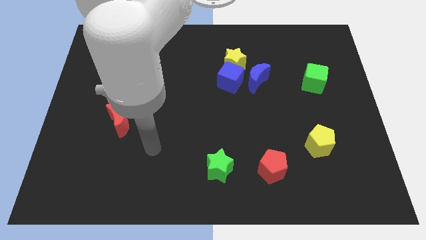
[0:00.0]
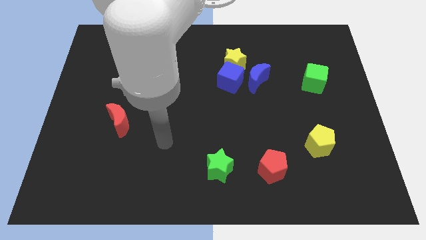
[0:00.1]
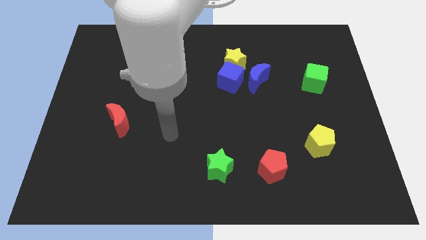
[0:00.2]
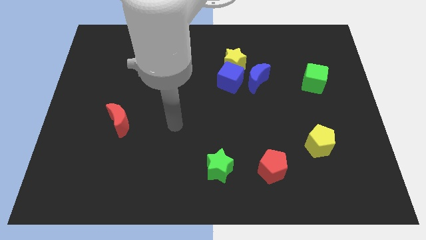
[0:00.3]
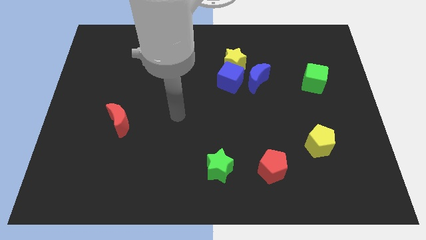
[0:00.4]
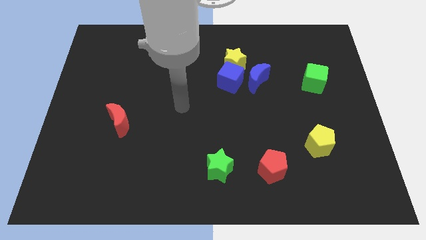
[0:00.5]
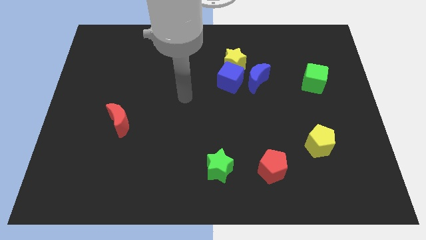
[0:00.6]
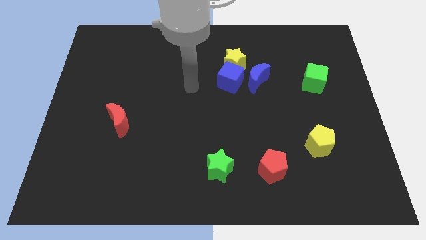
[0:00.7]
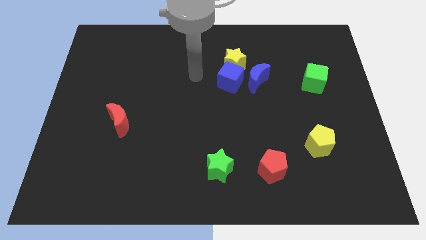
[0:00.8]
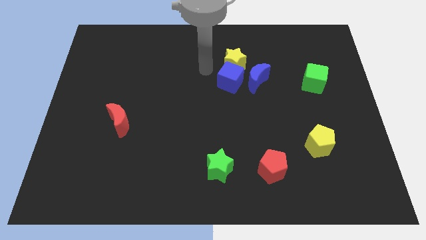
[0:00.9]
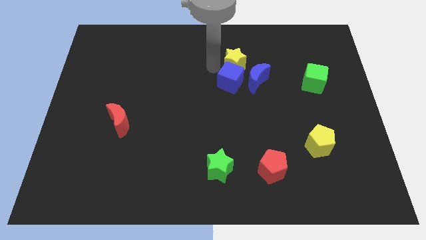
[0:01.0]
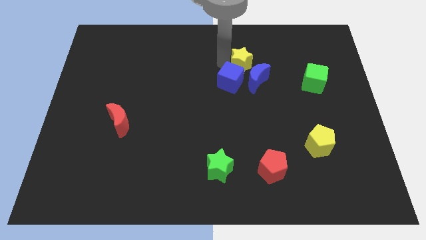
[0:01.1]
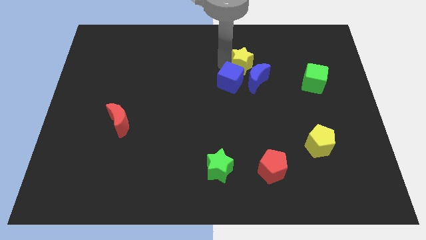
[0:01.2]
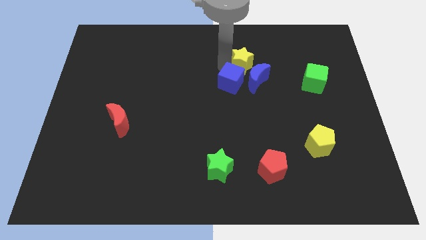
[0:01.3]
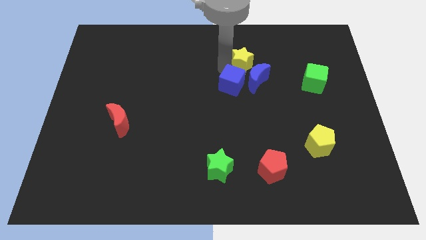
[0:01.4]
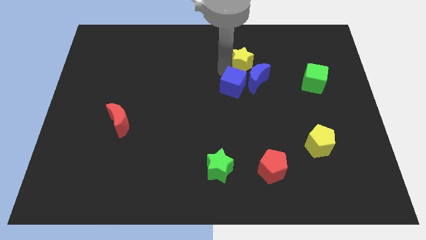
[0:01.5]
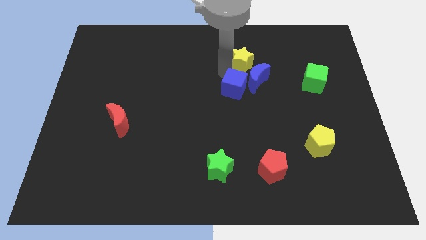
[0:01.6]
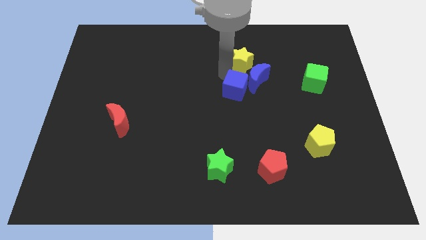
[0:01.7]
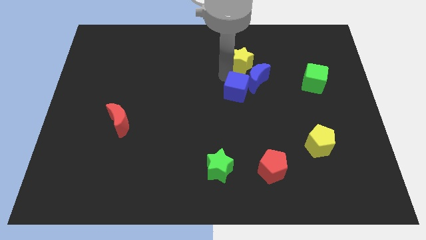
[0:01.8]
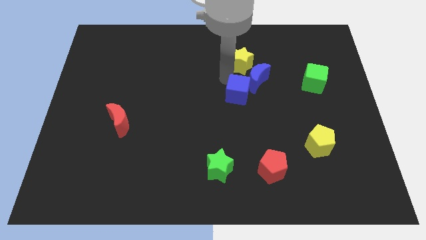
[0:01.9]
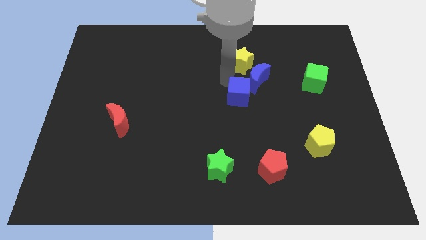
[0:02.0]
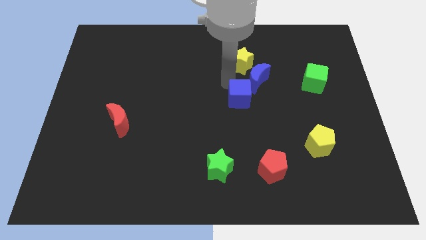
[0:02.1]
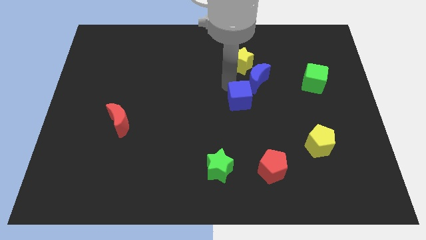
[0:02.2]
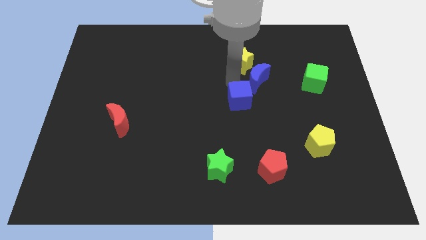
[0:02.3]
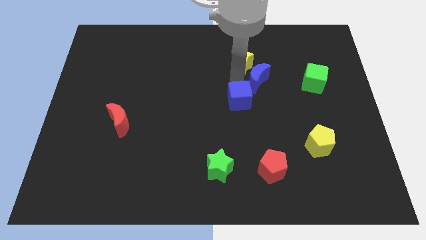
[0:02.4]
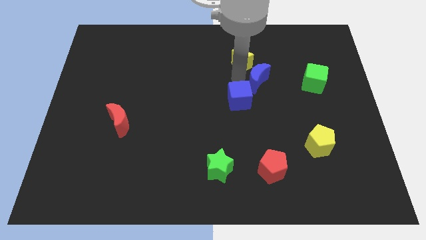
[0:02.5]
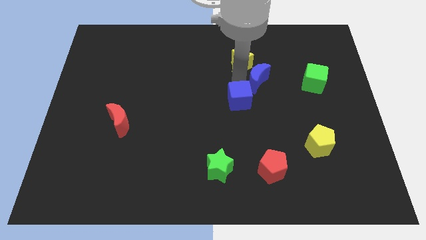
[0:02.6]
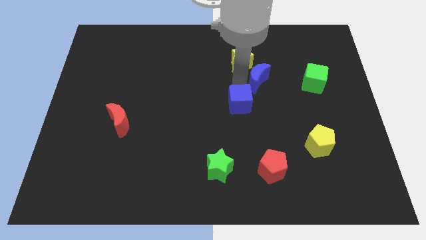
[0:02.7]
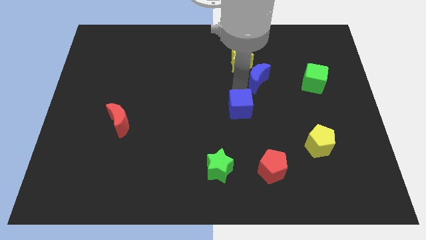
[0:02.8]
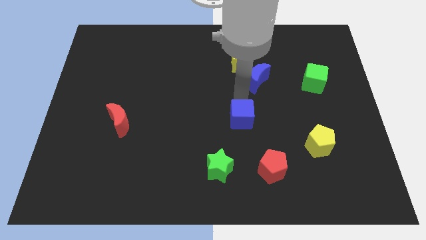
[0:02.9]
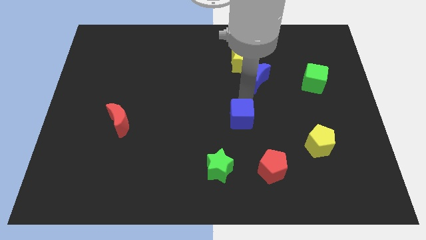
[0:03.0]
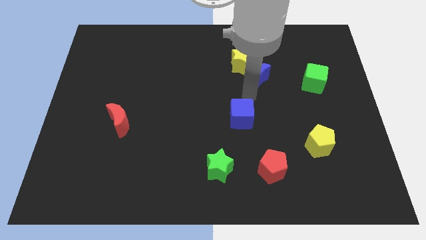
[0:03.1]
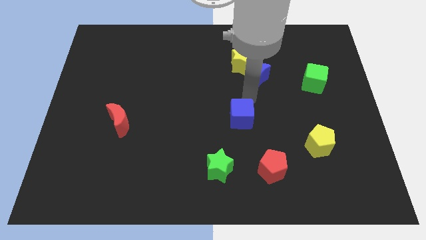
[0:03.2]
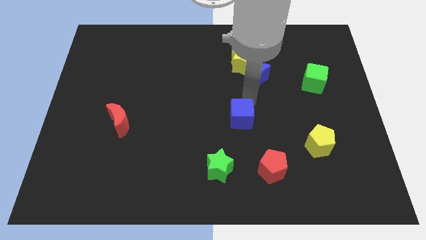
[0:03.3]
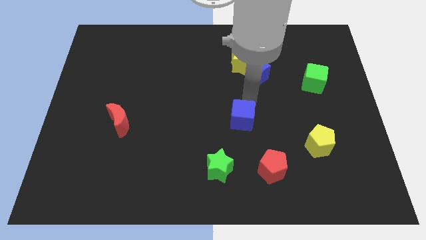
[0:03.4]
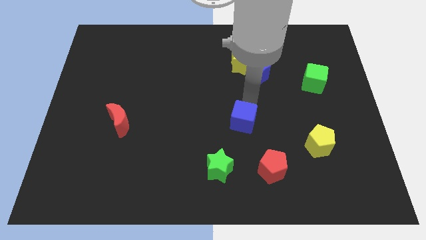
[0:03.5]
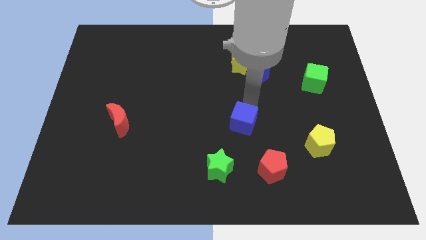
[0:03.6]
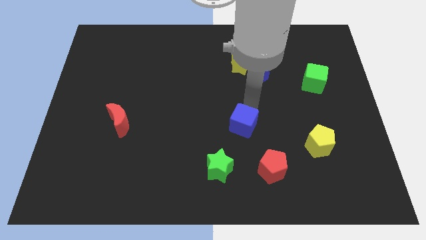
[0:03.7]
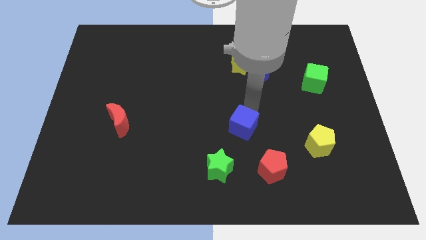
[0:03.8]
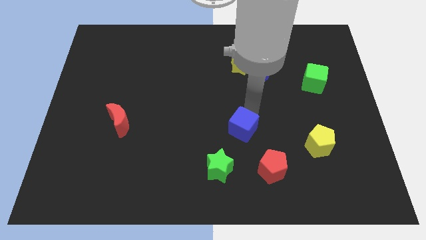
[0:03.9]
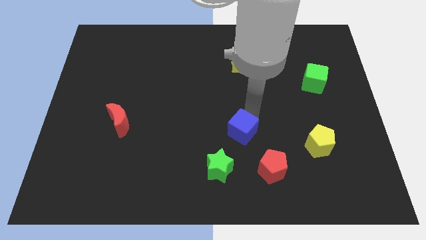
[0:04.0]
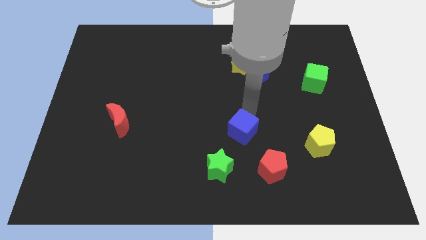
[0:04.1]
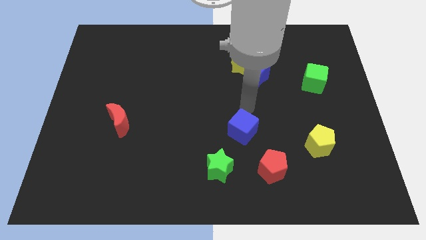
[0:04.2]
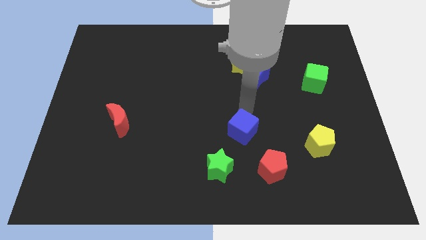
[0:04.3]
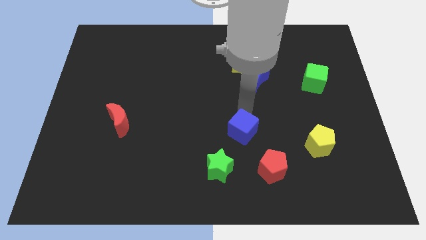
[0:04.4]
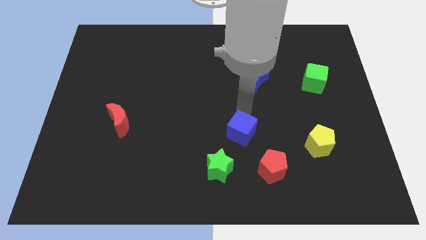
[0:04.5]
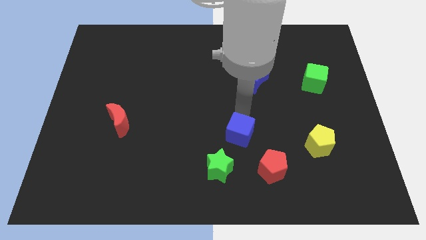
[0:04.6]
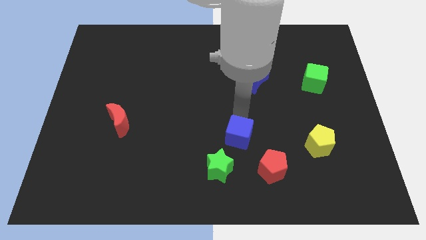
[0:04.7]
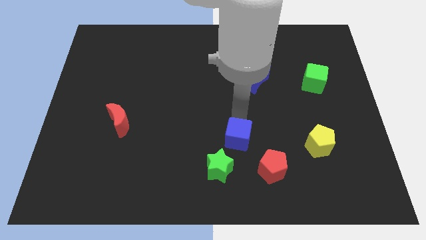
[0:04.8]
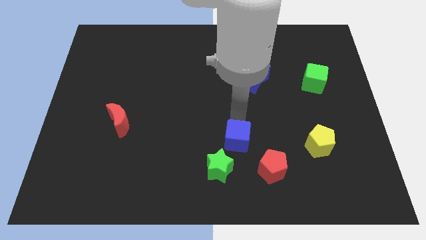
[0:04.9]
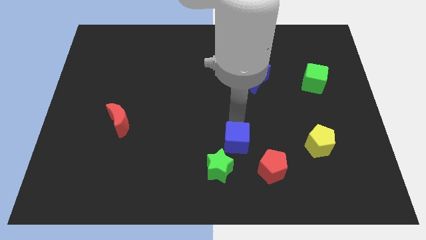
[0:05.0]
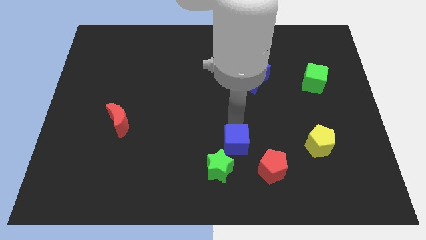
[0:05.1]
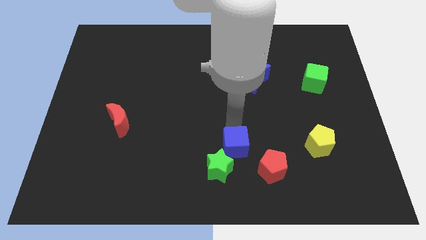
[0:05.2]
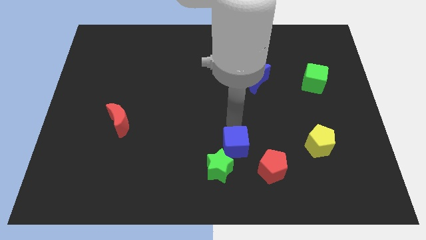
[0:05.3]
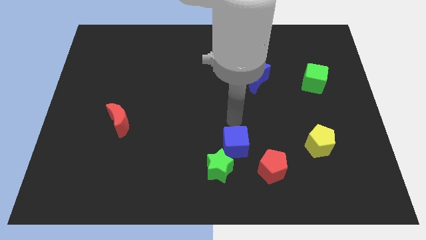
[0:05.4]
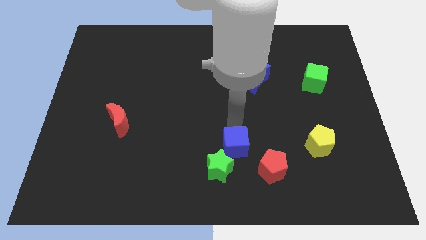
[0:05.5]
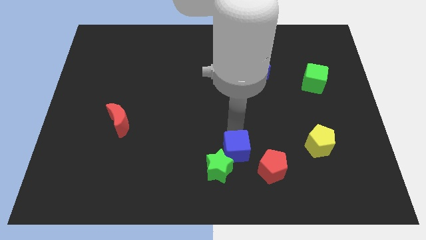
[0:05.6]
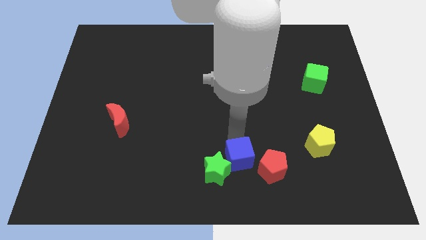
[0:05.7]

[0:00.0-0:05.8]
put the blue cube to the bottom
